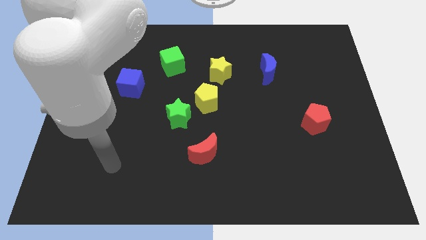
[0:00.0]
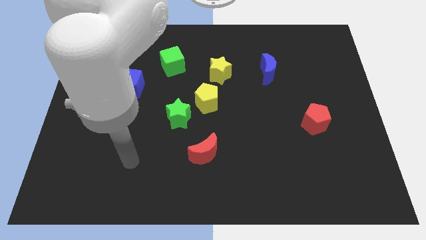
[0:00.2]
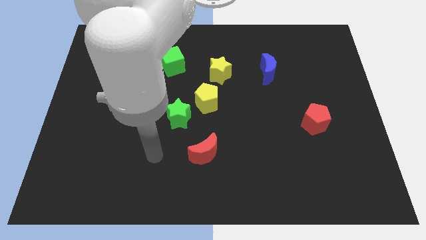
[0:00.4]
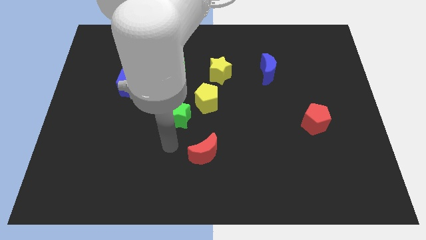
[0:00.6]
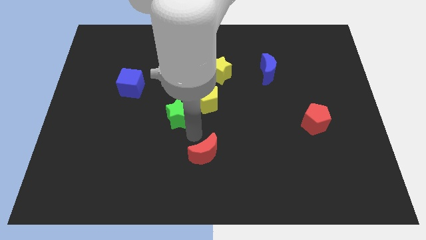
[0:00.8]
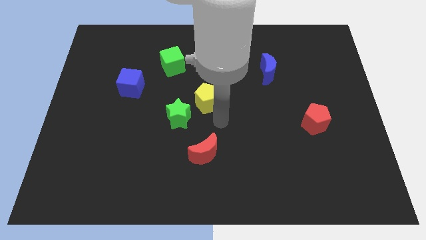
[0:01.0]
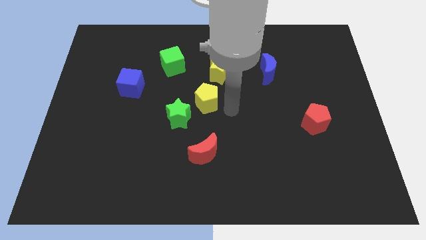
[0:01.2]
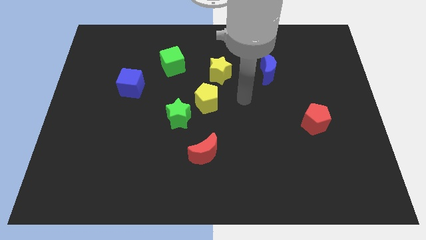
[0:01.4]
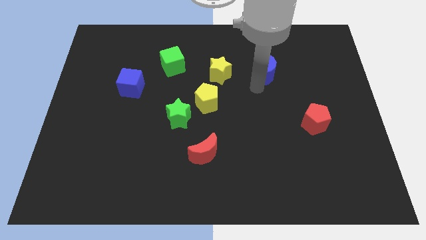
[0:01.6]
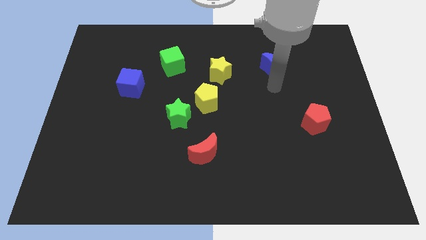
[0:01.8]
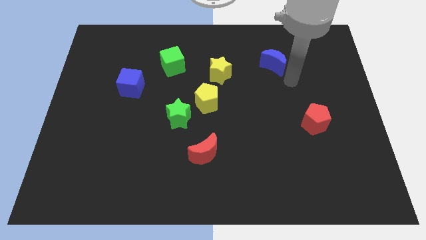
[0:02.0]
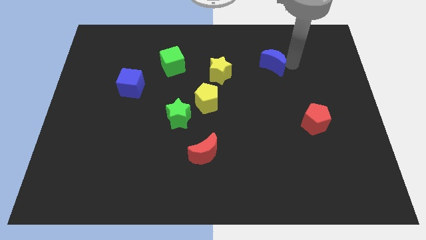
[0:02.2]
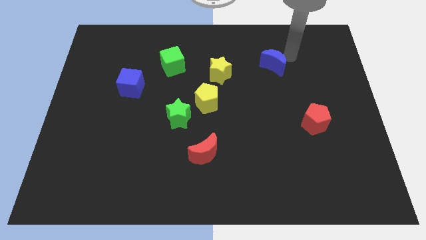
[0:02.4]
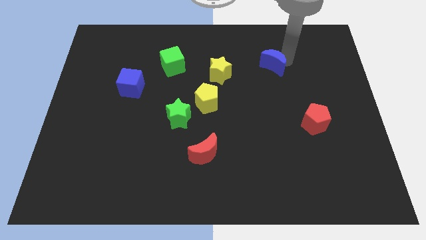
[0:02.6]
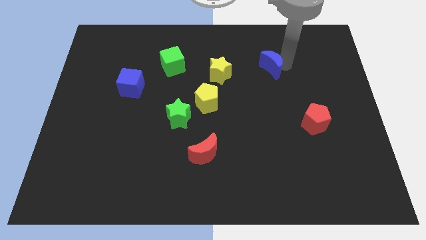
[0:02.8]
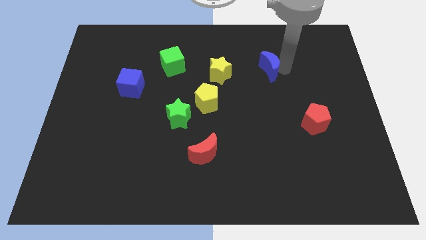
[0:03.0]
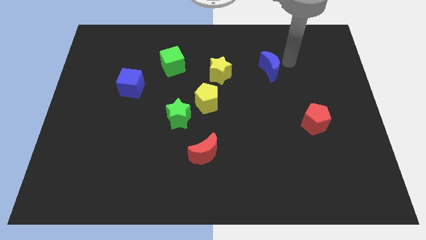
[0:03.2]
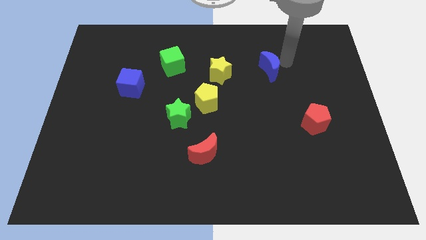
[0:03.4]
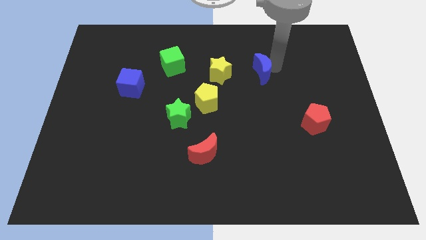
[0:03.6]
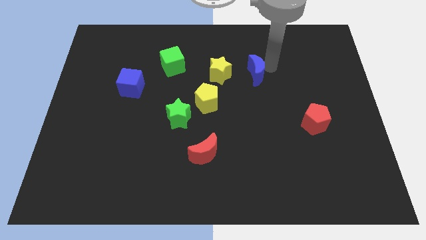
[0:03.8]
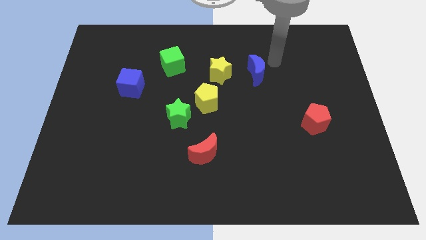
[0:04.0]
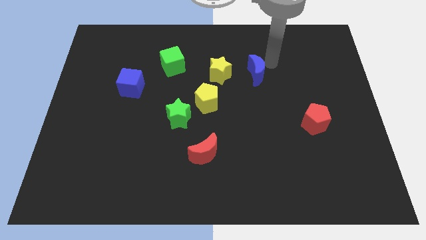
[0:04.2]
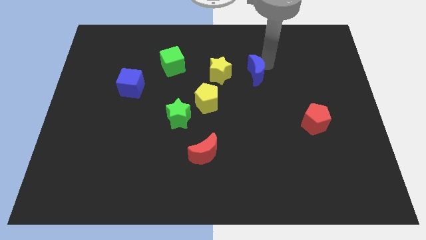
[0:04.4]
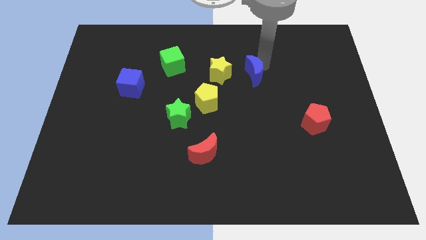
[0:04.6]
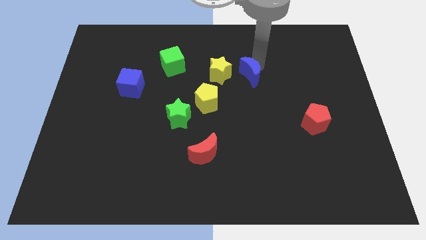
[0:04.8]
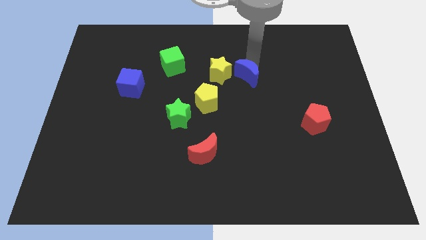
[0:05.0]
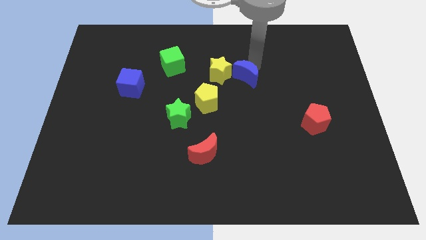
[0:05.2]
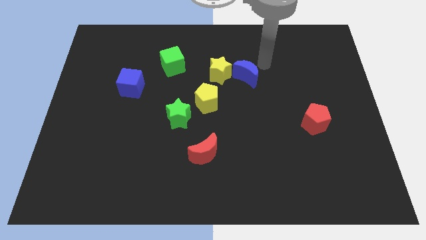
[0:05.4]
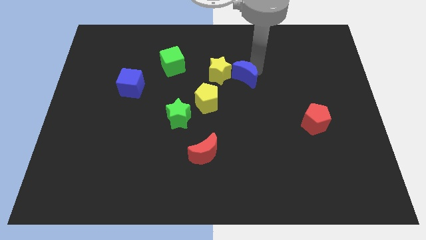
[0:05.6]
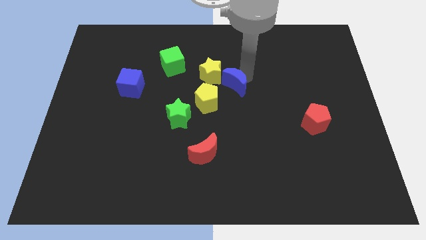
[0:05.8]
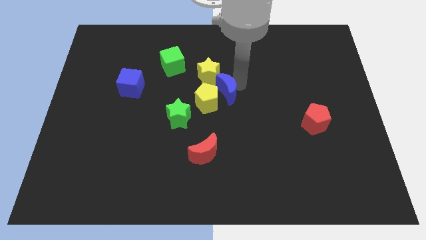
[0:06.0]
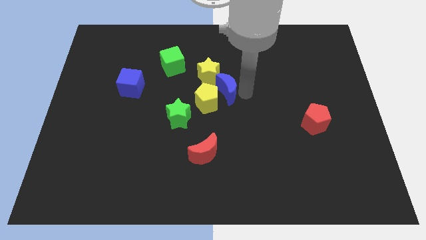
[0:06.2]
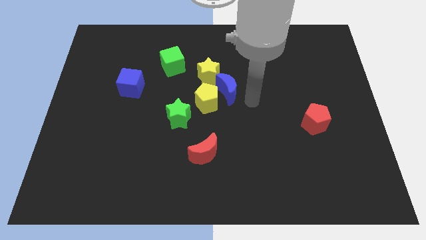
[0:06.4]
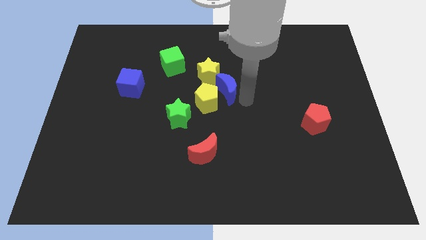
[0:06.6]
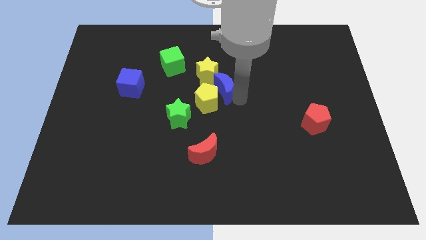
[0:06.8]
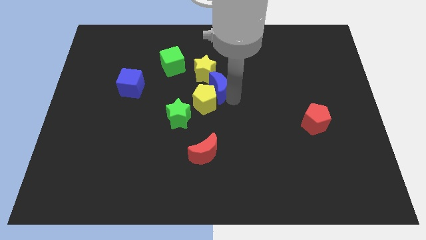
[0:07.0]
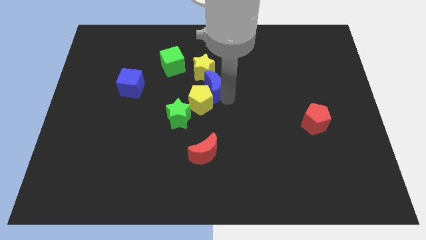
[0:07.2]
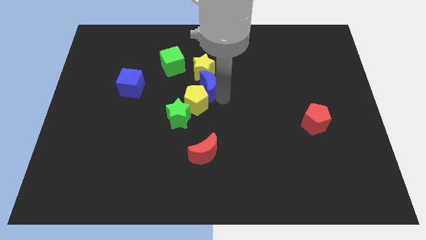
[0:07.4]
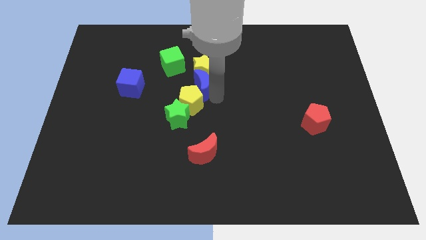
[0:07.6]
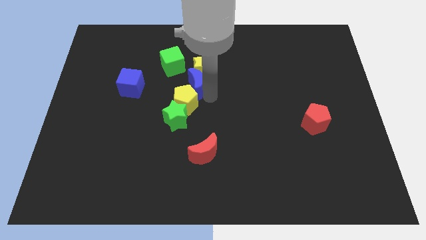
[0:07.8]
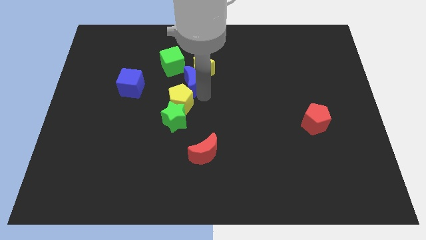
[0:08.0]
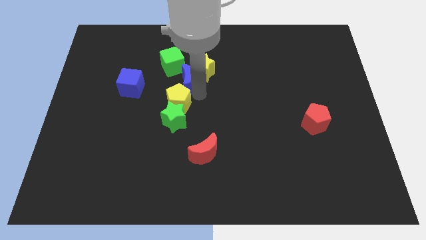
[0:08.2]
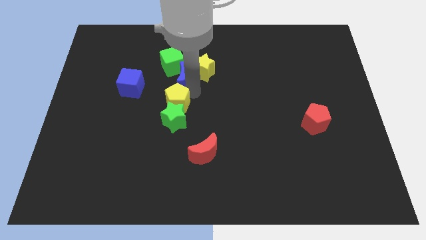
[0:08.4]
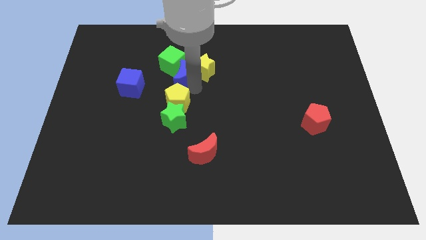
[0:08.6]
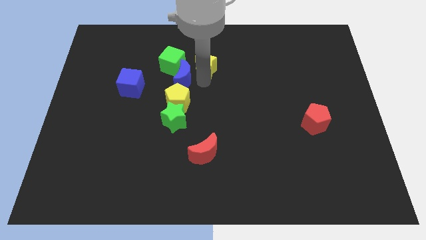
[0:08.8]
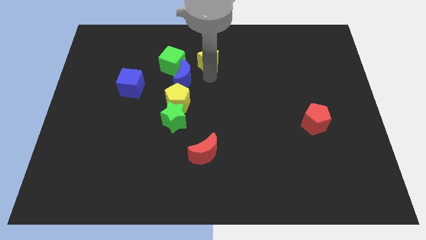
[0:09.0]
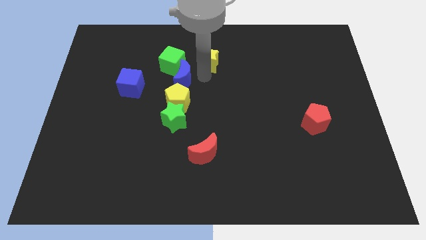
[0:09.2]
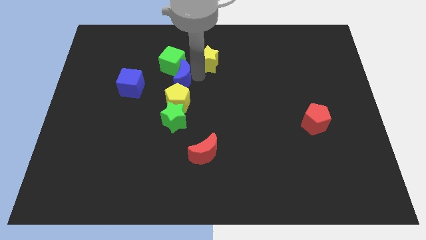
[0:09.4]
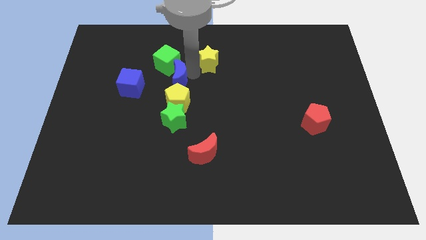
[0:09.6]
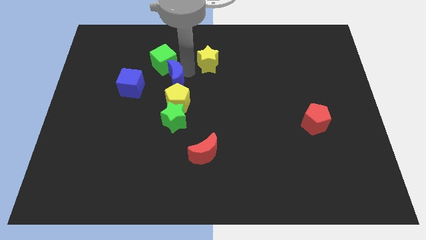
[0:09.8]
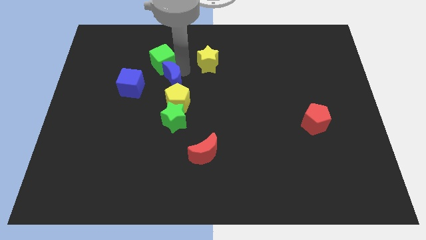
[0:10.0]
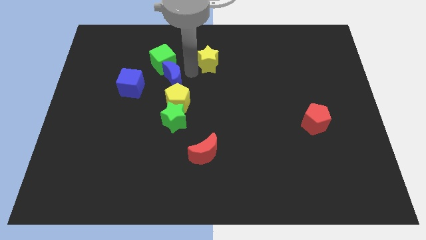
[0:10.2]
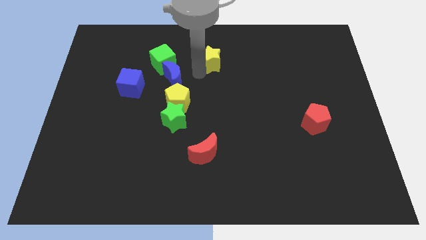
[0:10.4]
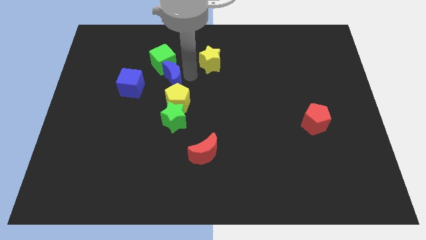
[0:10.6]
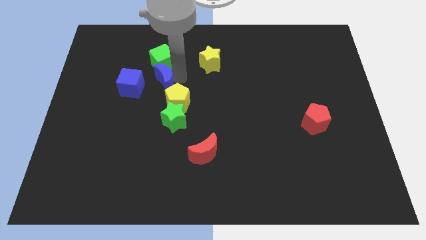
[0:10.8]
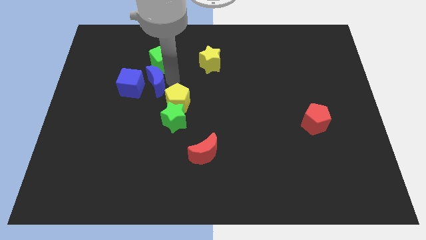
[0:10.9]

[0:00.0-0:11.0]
put the blue moon towards the blue cube
